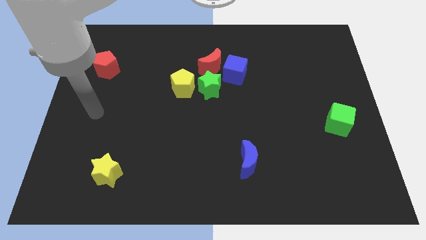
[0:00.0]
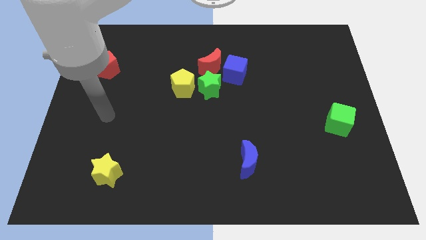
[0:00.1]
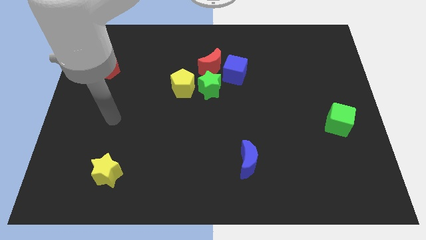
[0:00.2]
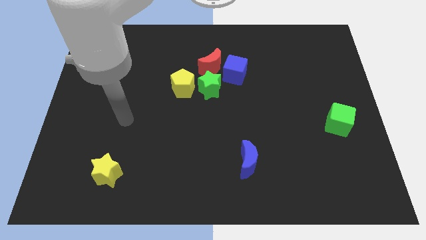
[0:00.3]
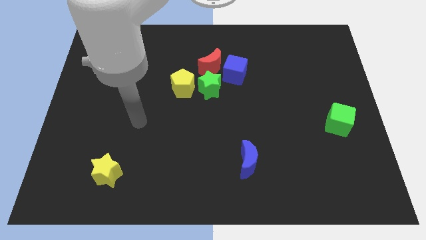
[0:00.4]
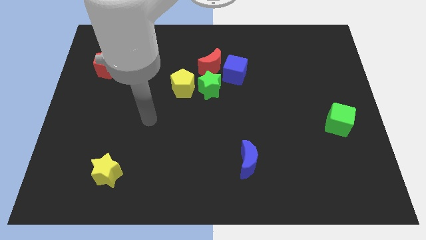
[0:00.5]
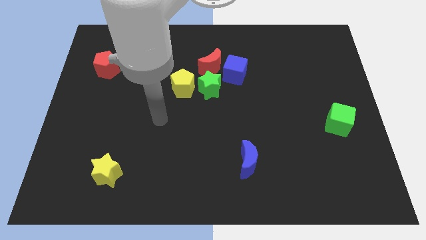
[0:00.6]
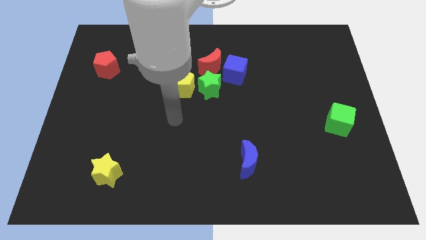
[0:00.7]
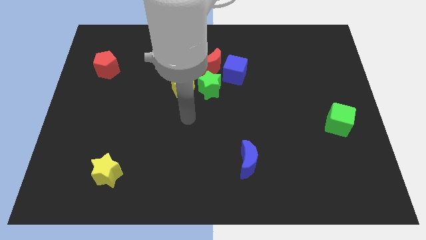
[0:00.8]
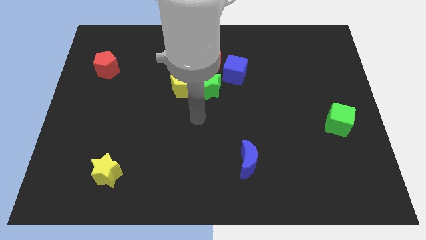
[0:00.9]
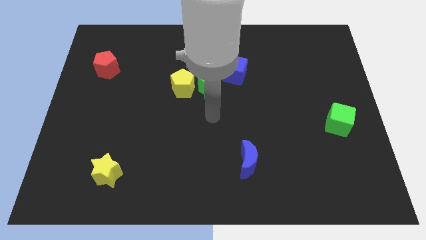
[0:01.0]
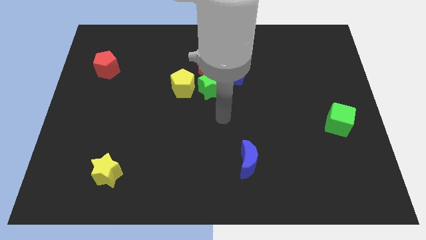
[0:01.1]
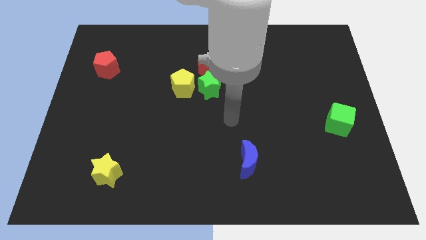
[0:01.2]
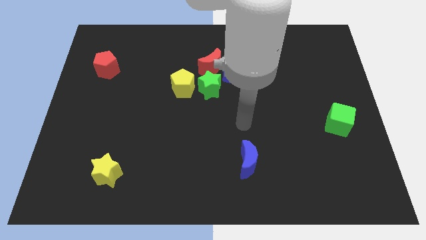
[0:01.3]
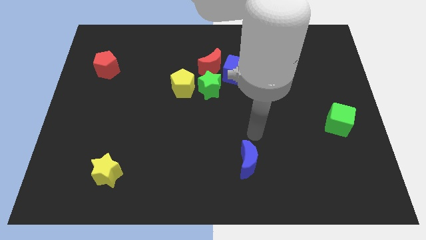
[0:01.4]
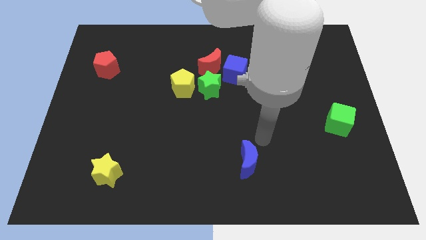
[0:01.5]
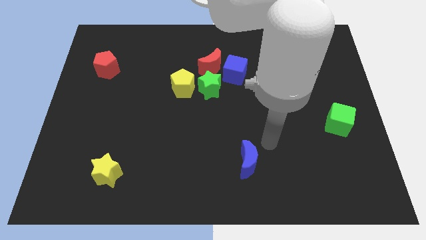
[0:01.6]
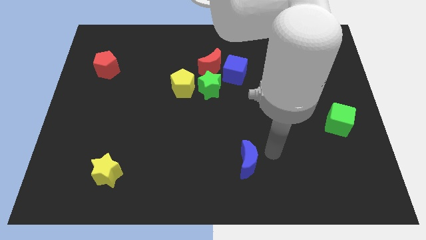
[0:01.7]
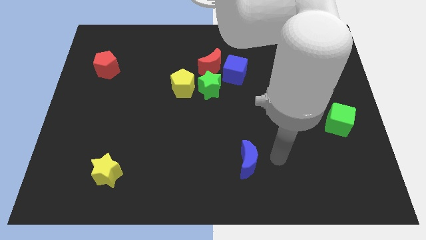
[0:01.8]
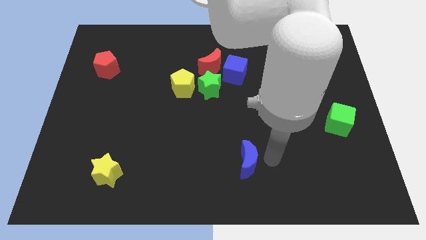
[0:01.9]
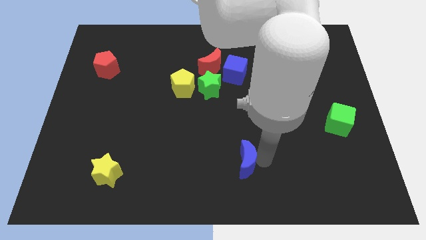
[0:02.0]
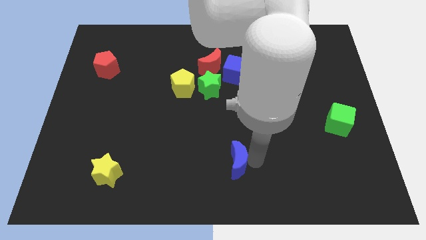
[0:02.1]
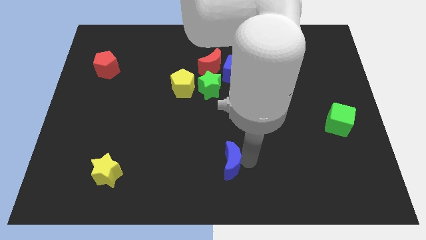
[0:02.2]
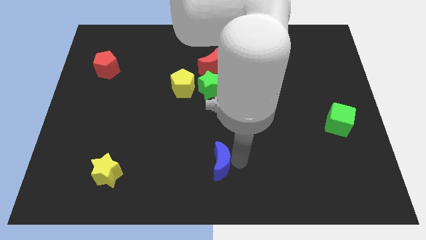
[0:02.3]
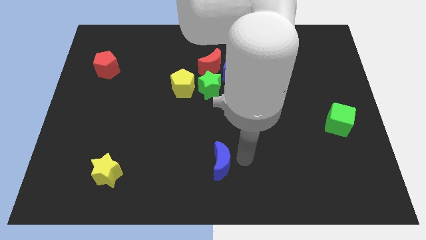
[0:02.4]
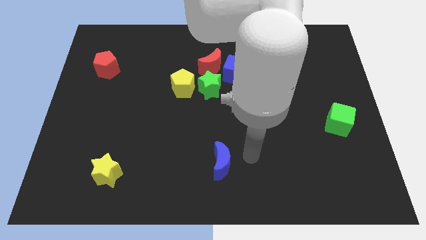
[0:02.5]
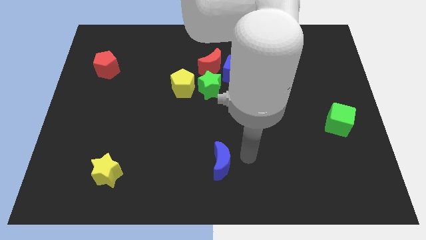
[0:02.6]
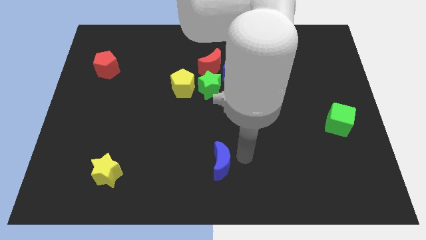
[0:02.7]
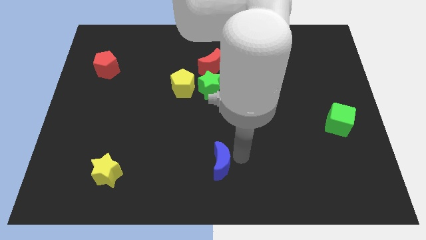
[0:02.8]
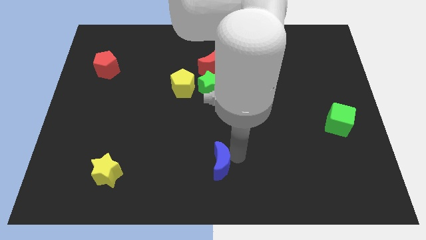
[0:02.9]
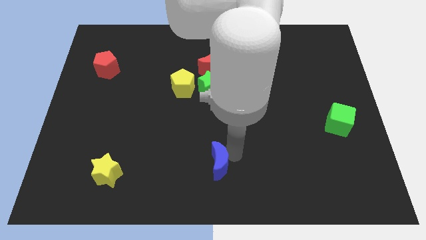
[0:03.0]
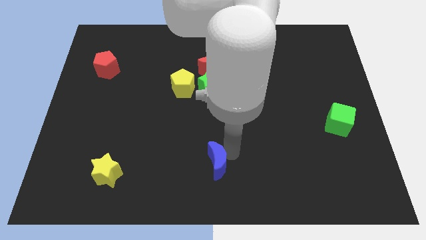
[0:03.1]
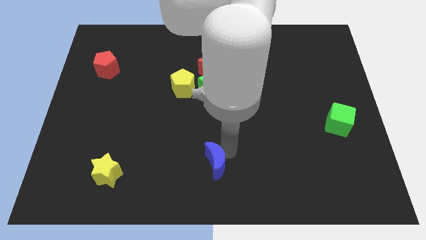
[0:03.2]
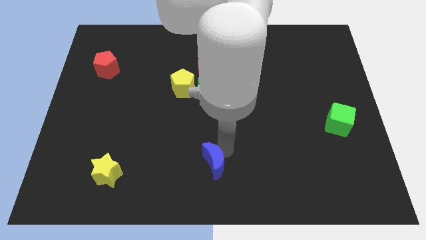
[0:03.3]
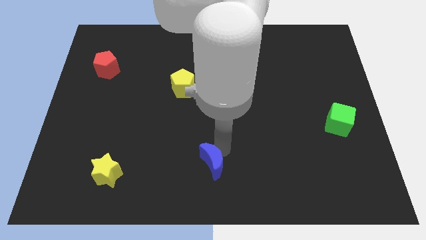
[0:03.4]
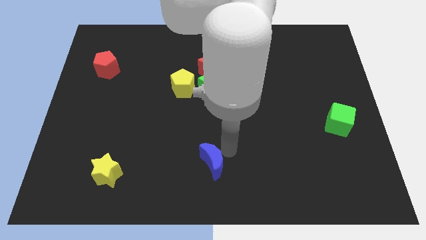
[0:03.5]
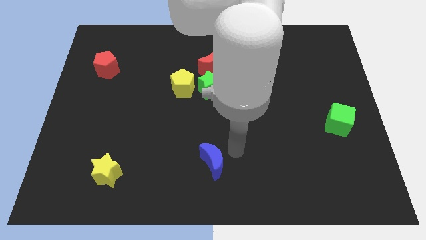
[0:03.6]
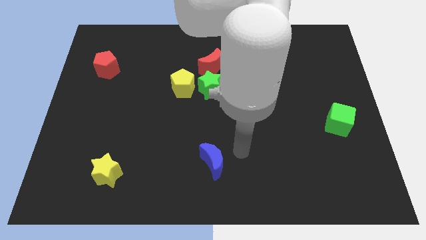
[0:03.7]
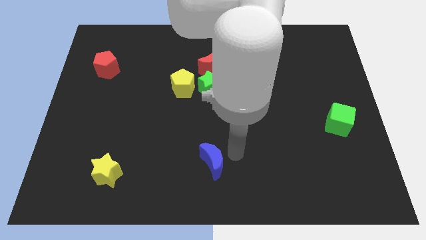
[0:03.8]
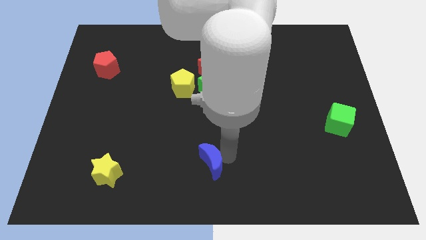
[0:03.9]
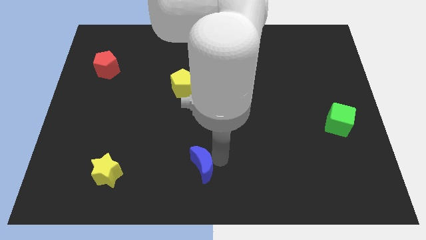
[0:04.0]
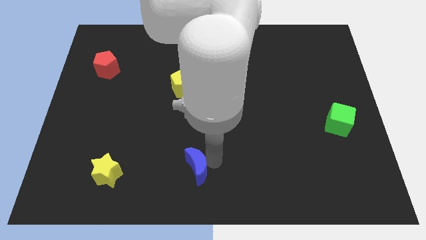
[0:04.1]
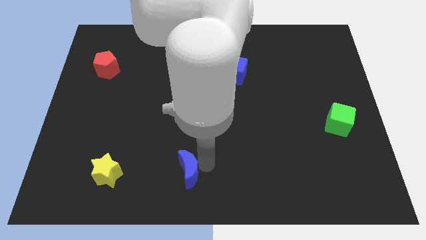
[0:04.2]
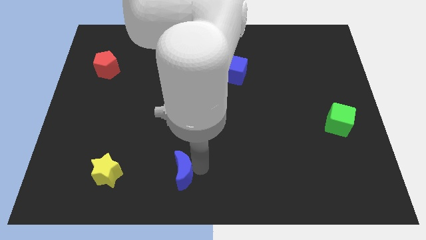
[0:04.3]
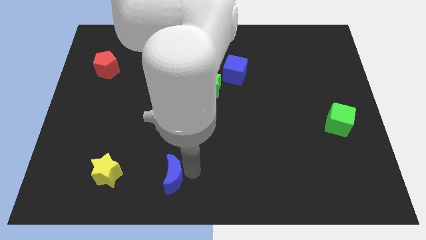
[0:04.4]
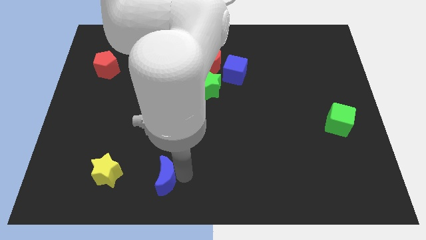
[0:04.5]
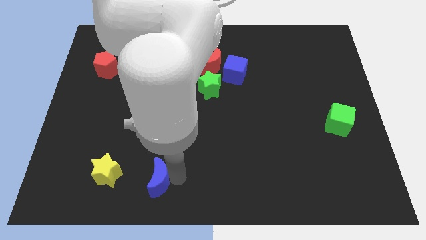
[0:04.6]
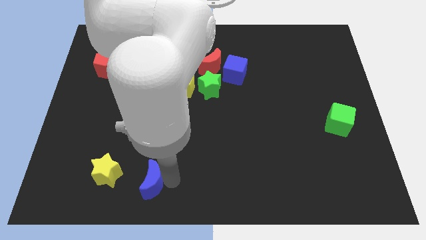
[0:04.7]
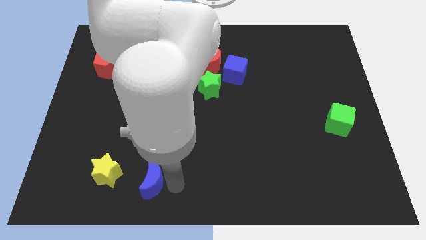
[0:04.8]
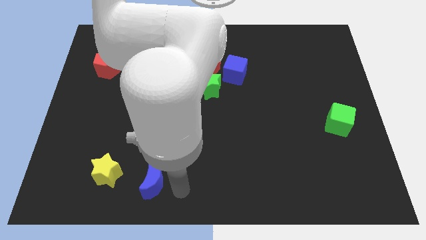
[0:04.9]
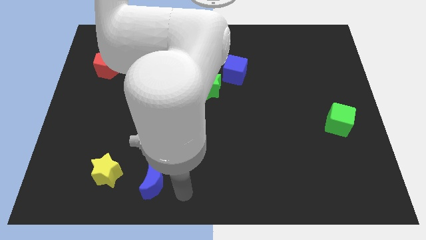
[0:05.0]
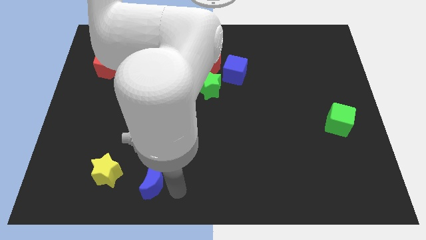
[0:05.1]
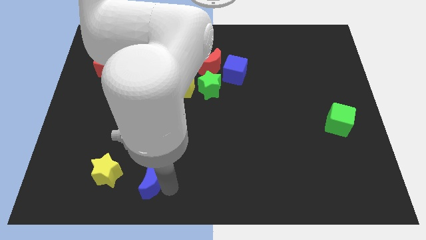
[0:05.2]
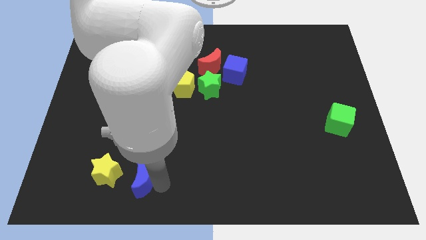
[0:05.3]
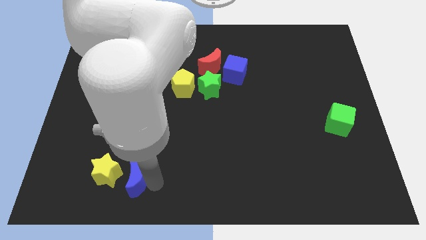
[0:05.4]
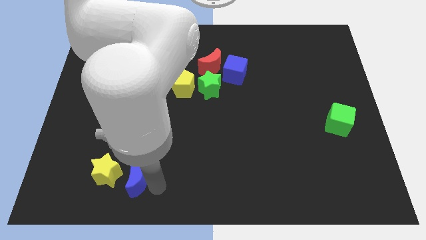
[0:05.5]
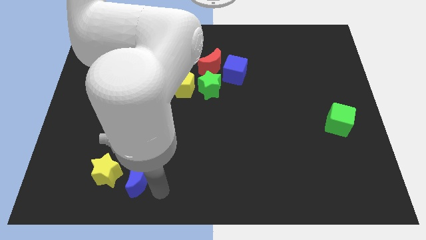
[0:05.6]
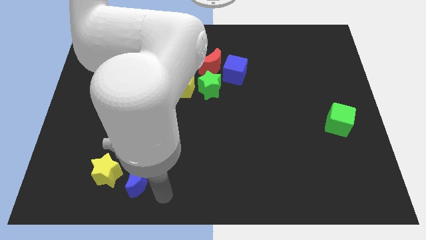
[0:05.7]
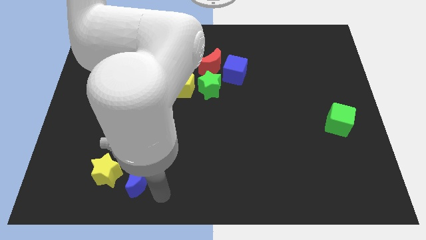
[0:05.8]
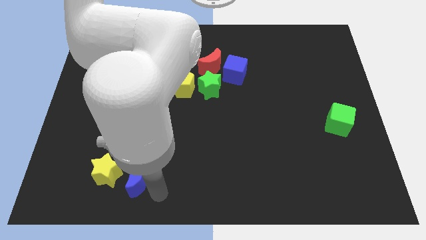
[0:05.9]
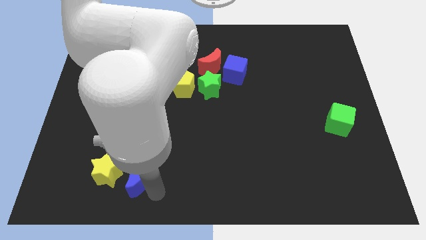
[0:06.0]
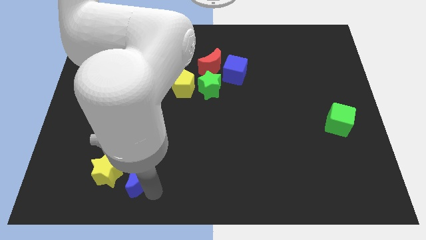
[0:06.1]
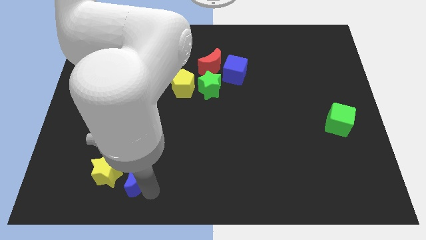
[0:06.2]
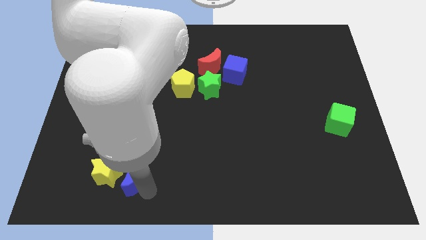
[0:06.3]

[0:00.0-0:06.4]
push the blue moon close to the yellow star

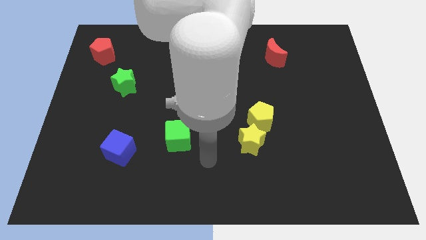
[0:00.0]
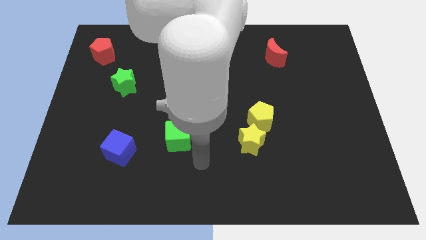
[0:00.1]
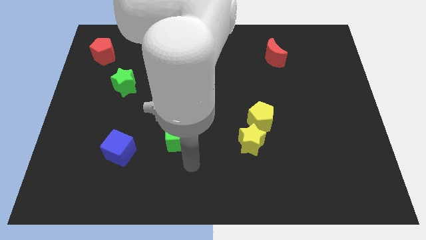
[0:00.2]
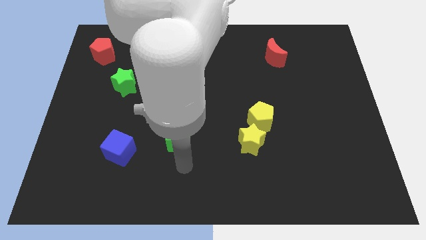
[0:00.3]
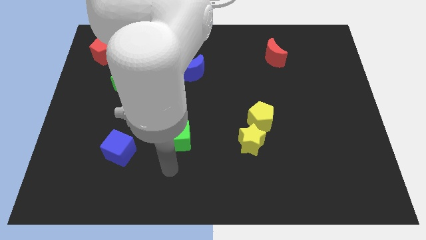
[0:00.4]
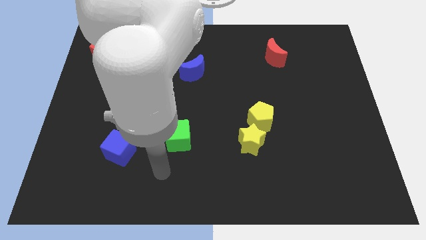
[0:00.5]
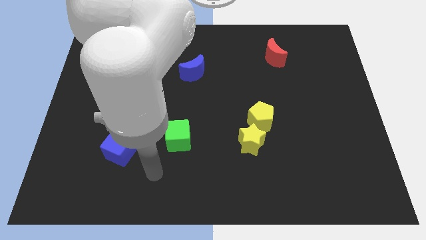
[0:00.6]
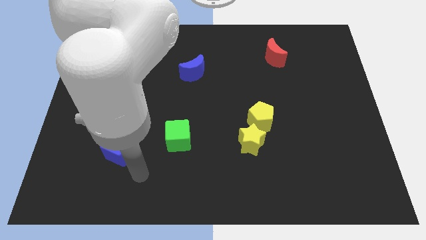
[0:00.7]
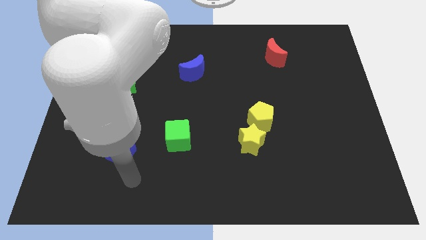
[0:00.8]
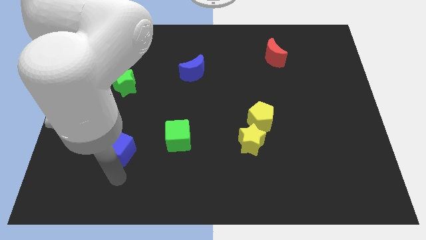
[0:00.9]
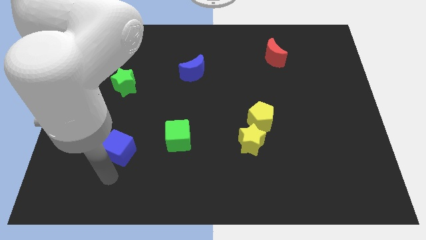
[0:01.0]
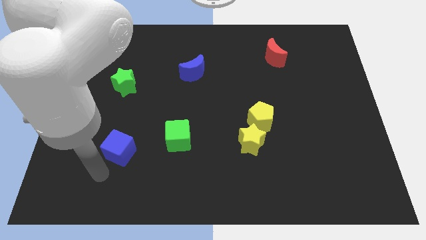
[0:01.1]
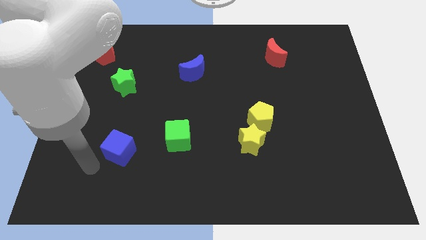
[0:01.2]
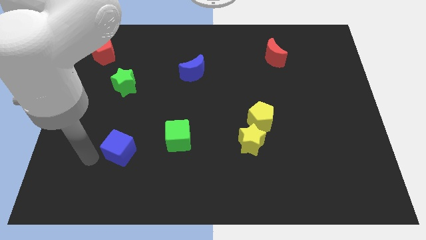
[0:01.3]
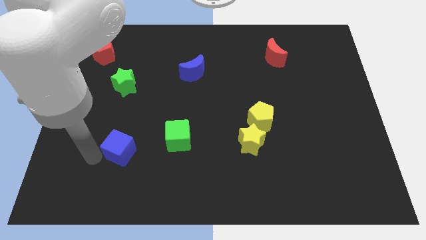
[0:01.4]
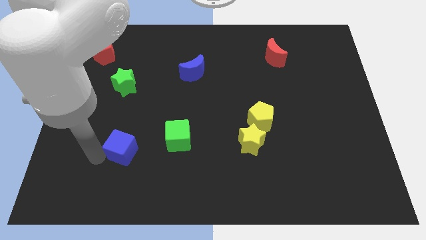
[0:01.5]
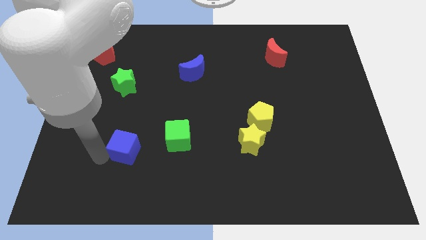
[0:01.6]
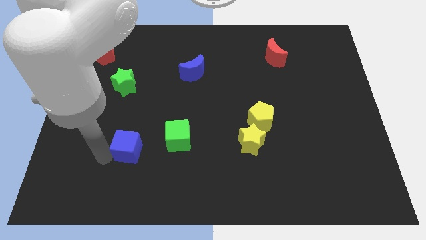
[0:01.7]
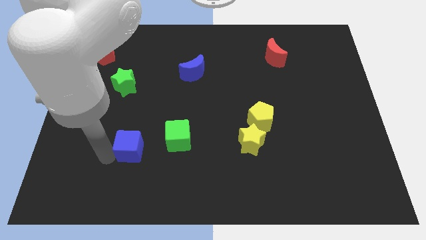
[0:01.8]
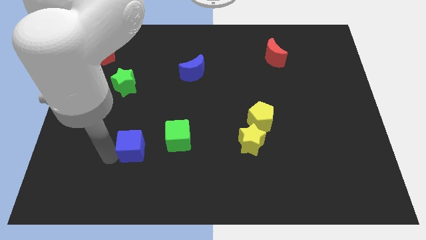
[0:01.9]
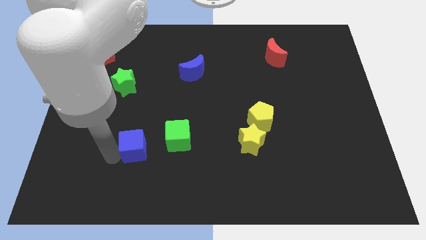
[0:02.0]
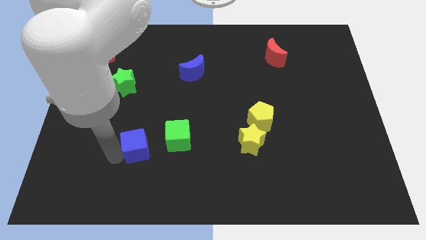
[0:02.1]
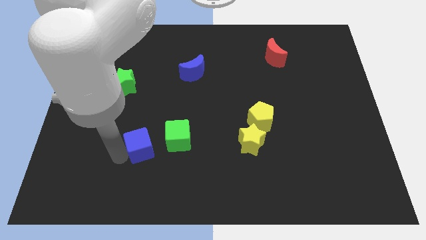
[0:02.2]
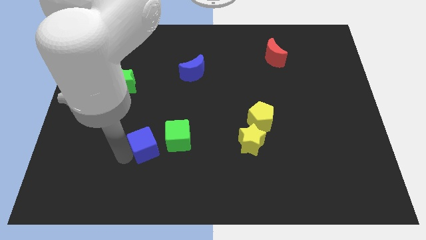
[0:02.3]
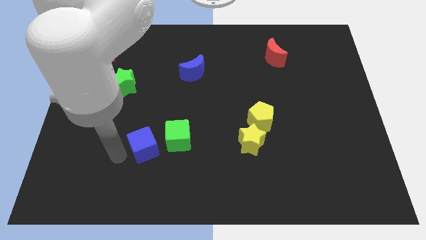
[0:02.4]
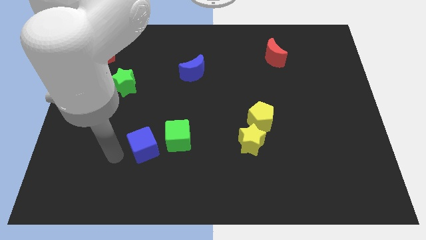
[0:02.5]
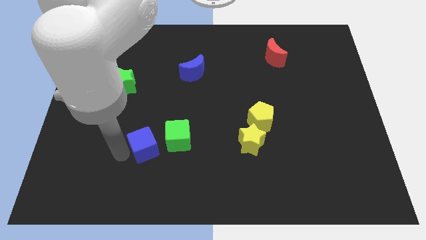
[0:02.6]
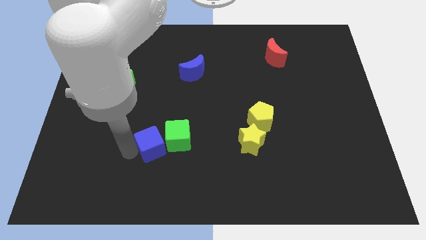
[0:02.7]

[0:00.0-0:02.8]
slide the blue cube next to the green cube
